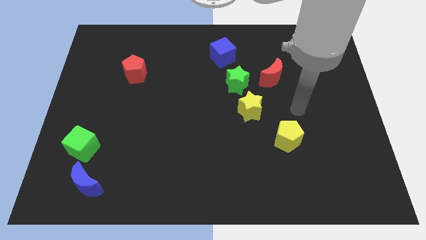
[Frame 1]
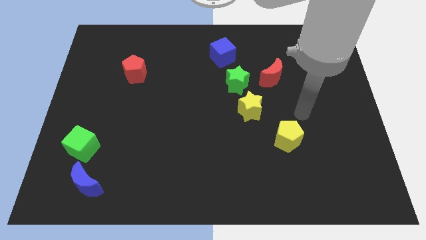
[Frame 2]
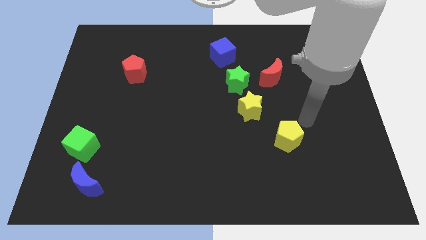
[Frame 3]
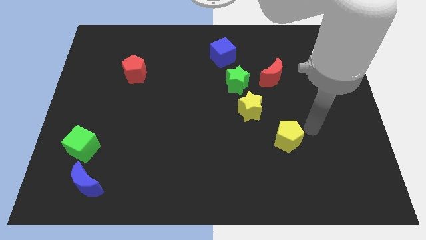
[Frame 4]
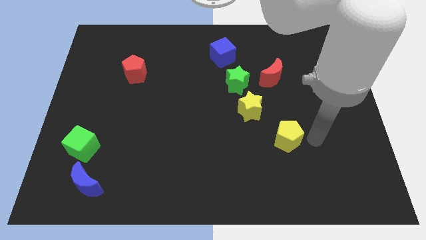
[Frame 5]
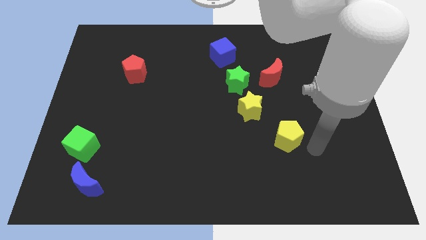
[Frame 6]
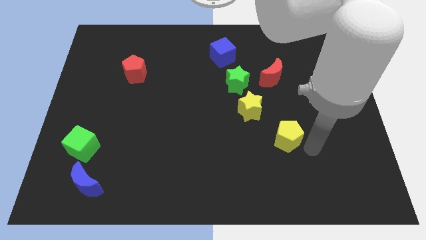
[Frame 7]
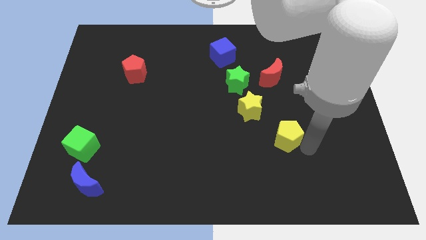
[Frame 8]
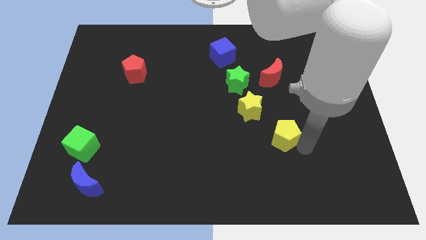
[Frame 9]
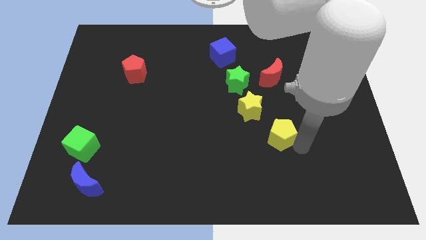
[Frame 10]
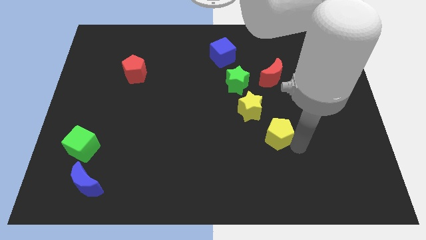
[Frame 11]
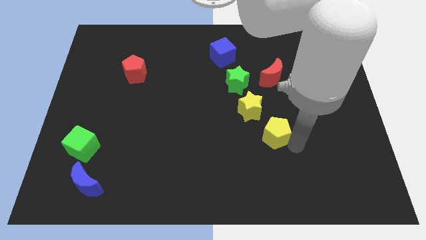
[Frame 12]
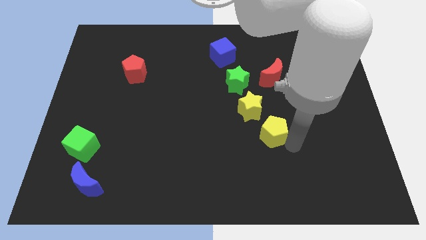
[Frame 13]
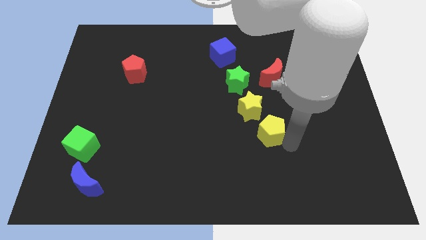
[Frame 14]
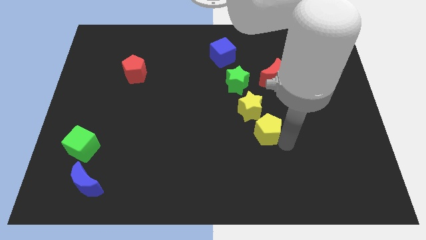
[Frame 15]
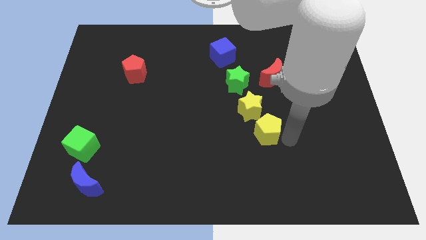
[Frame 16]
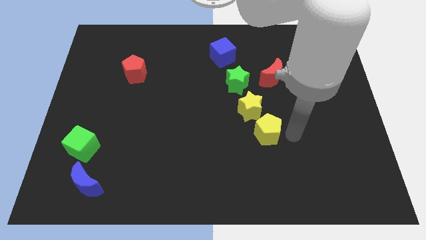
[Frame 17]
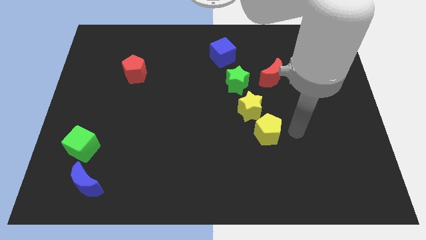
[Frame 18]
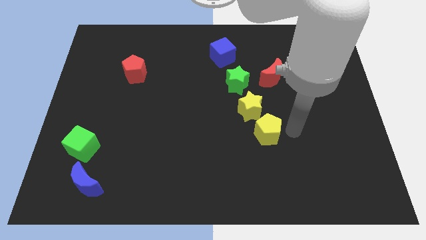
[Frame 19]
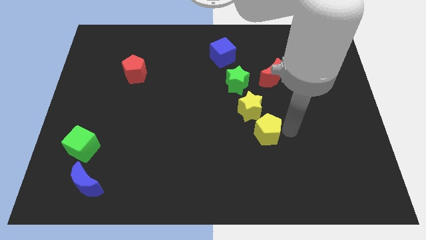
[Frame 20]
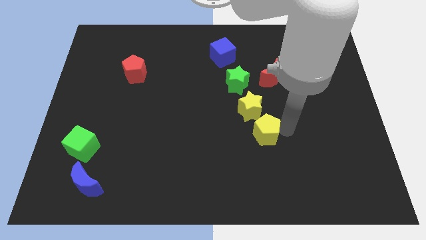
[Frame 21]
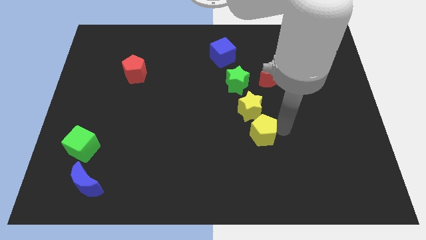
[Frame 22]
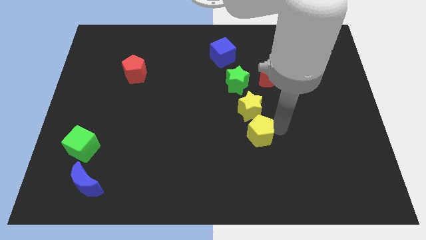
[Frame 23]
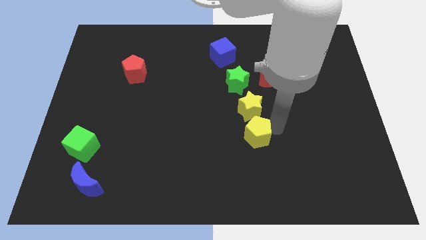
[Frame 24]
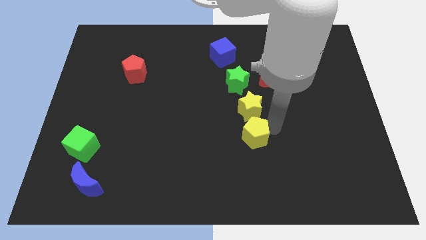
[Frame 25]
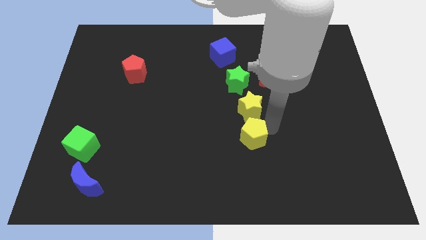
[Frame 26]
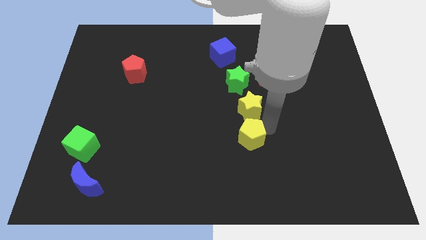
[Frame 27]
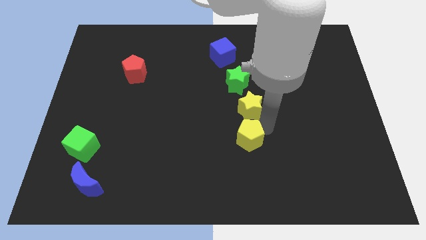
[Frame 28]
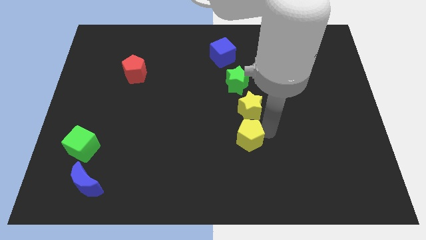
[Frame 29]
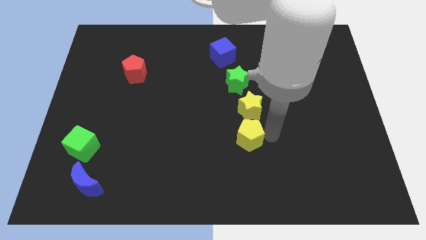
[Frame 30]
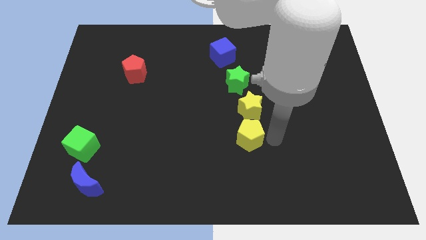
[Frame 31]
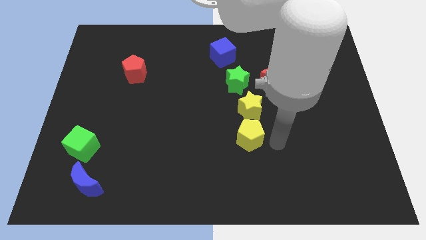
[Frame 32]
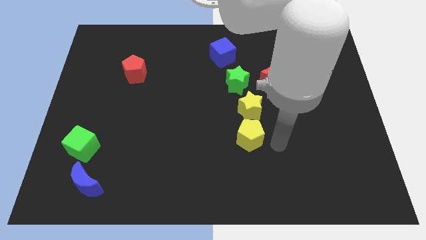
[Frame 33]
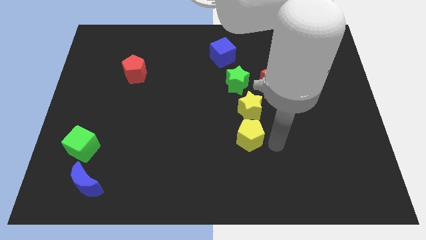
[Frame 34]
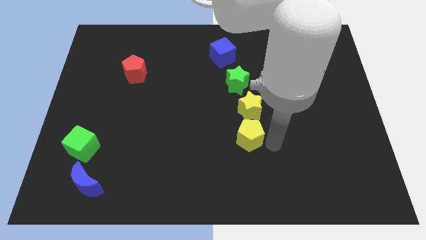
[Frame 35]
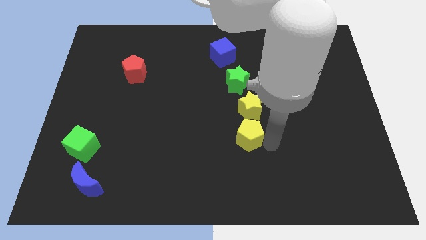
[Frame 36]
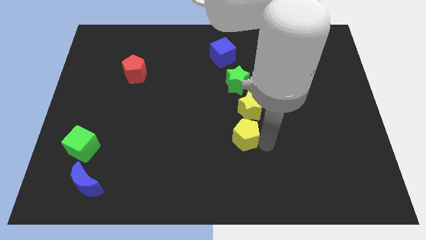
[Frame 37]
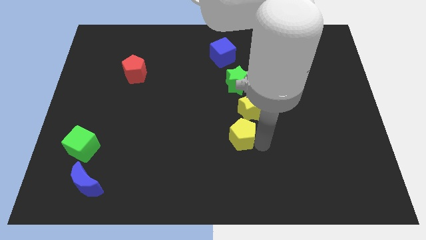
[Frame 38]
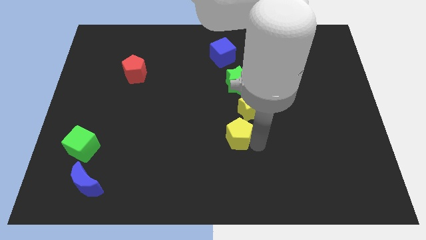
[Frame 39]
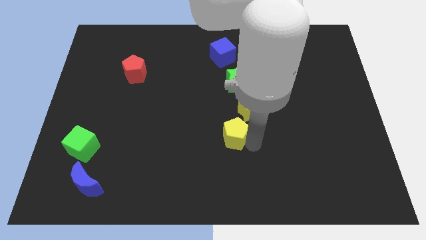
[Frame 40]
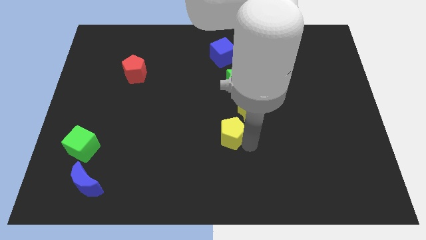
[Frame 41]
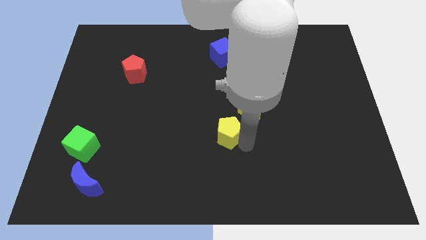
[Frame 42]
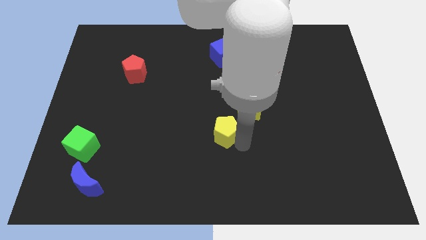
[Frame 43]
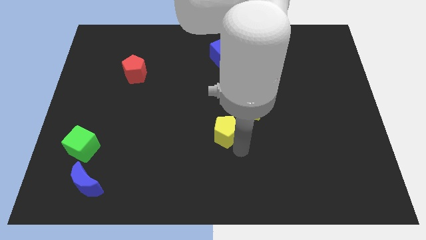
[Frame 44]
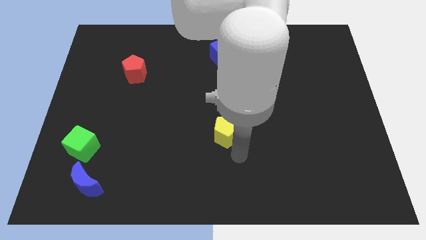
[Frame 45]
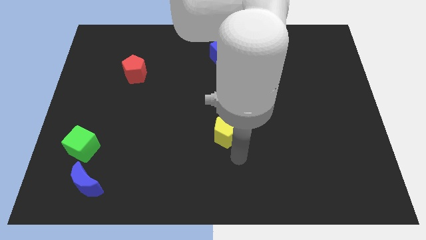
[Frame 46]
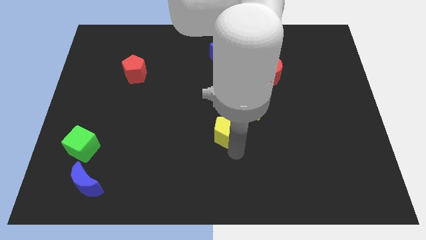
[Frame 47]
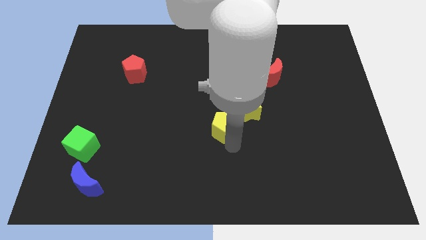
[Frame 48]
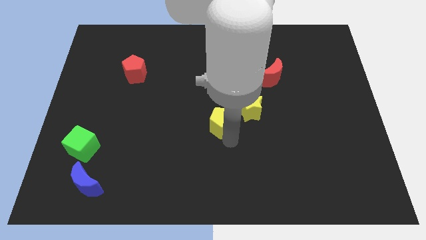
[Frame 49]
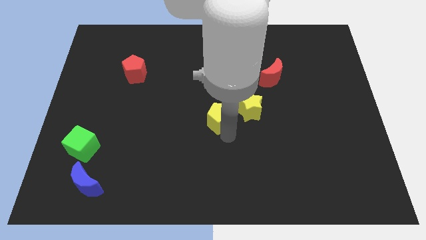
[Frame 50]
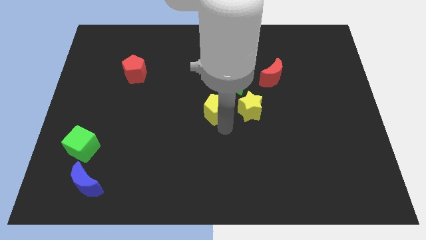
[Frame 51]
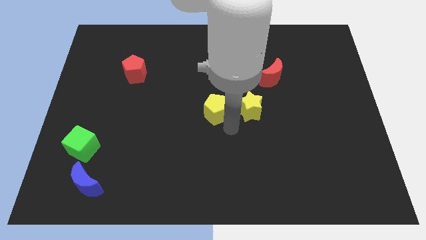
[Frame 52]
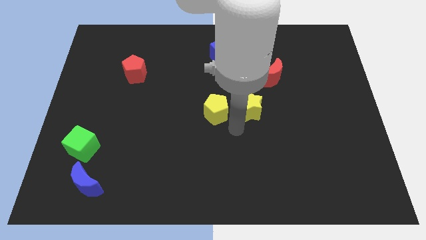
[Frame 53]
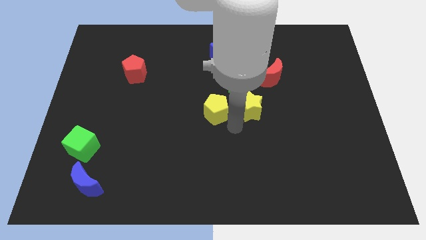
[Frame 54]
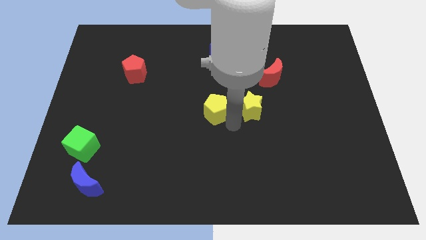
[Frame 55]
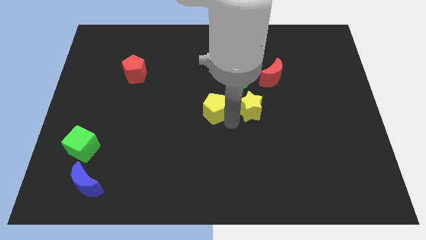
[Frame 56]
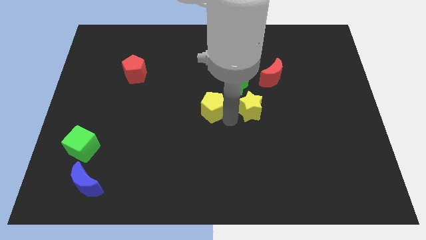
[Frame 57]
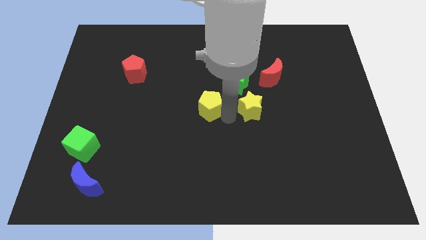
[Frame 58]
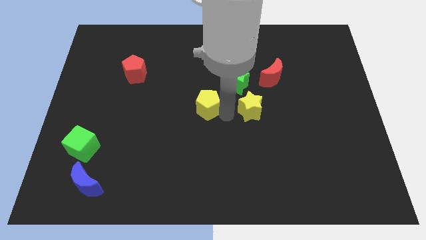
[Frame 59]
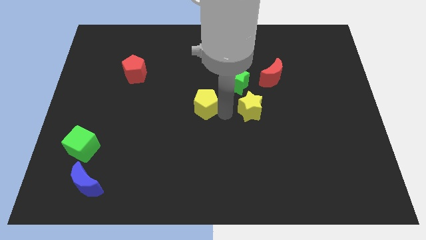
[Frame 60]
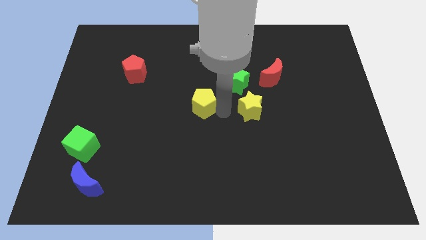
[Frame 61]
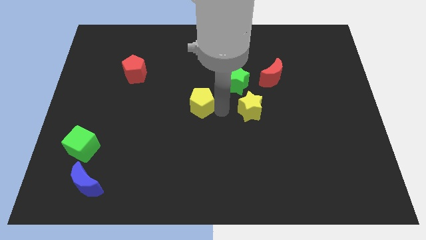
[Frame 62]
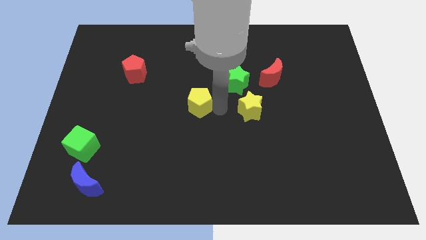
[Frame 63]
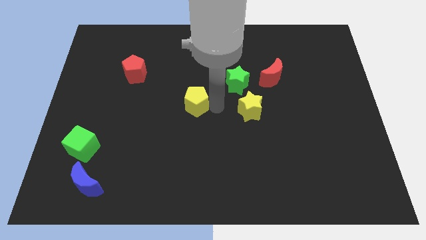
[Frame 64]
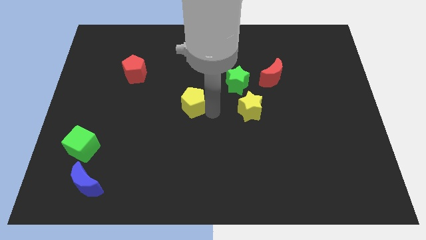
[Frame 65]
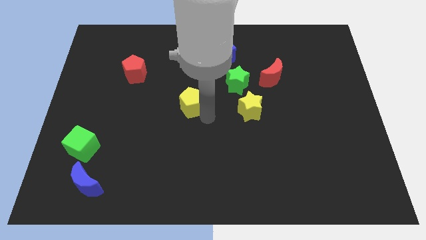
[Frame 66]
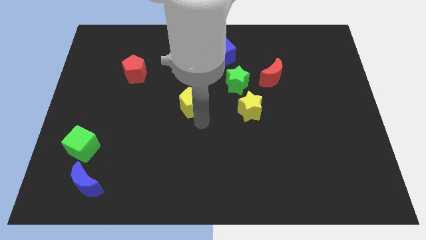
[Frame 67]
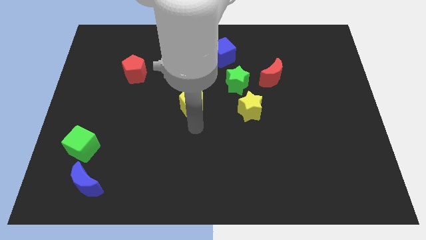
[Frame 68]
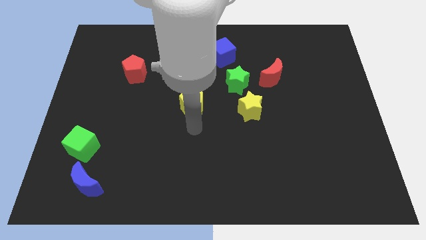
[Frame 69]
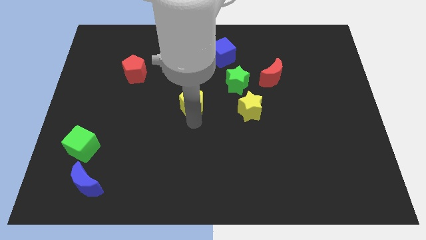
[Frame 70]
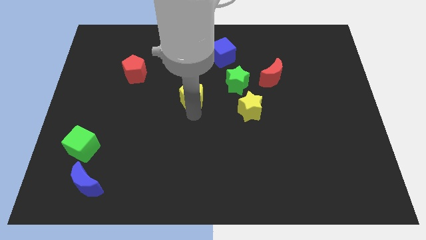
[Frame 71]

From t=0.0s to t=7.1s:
move the yellow pentagon up and to the left

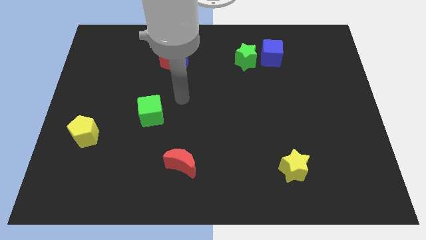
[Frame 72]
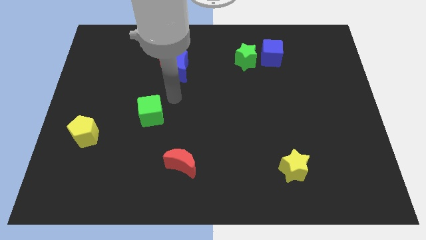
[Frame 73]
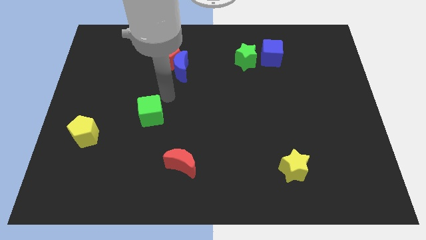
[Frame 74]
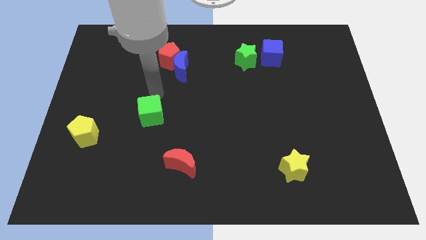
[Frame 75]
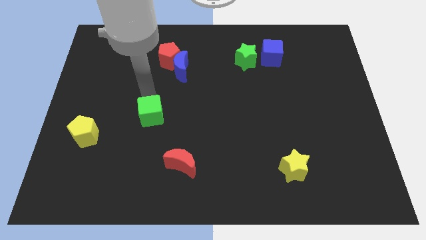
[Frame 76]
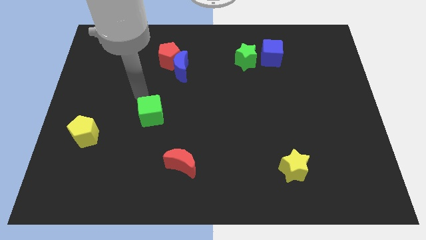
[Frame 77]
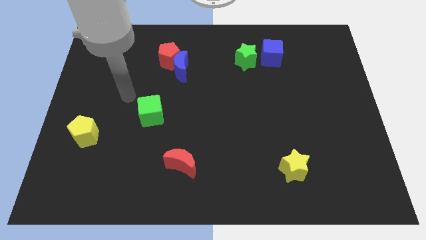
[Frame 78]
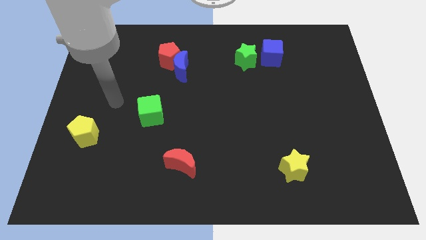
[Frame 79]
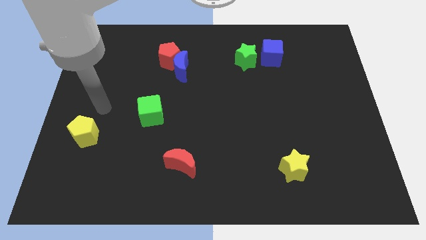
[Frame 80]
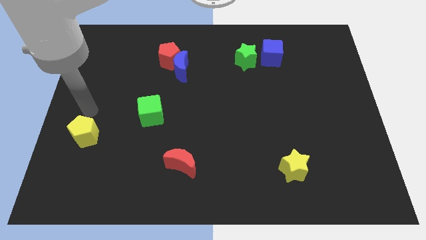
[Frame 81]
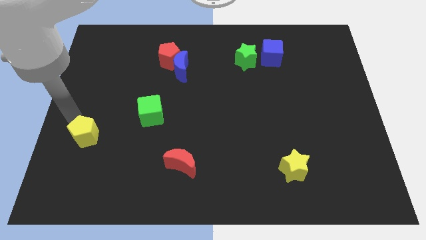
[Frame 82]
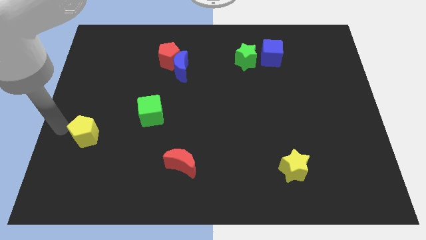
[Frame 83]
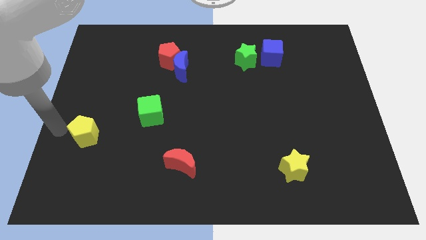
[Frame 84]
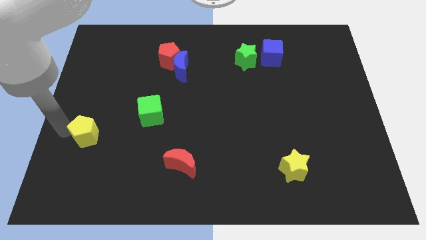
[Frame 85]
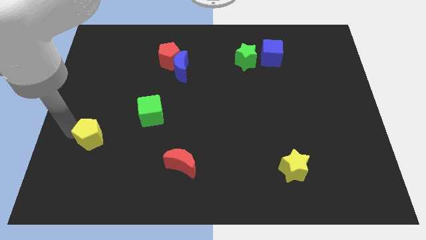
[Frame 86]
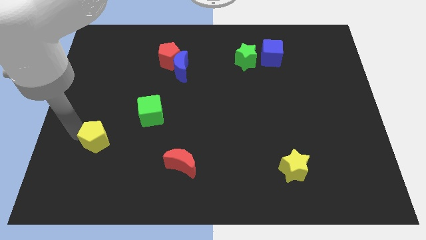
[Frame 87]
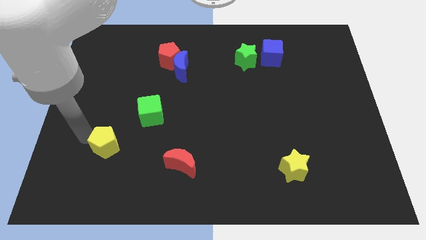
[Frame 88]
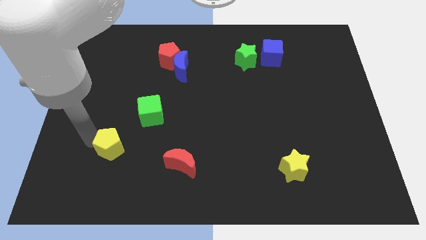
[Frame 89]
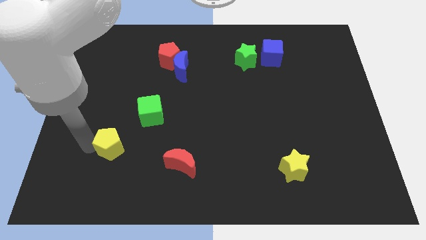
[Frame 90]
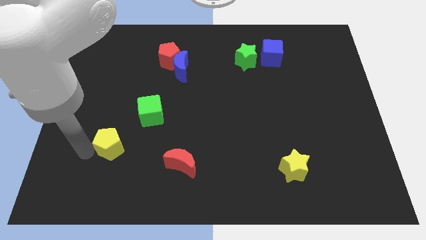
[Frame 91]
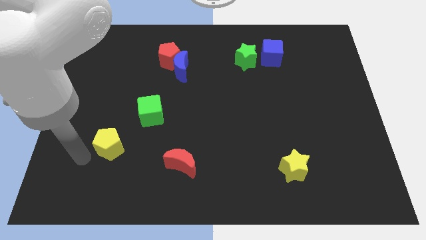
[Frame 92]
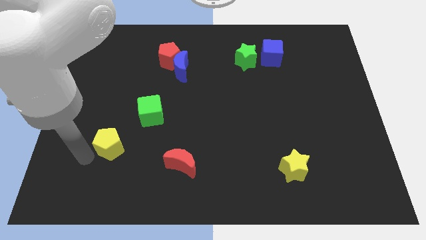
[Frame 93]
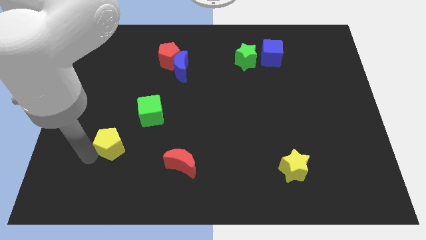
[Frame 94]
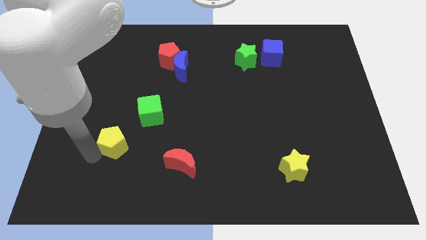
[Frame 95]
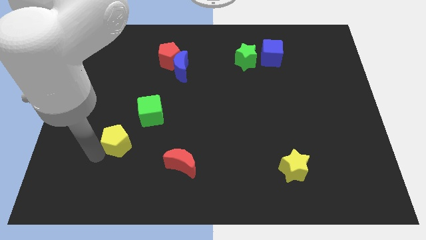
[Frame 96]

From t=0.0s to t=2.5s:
move the yellow pentagon to the right a little bit
